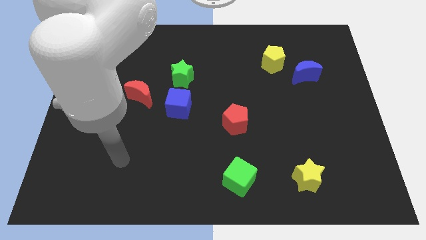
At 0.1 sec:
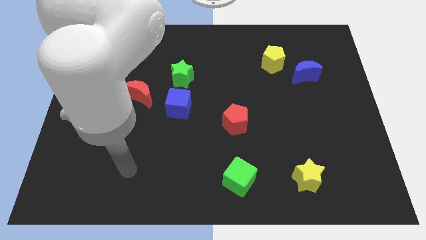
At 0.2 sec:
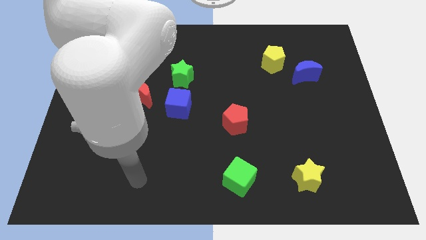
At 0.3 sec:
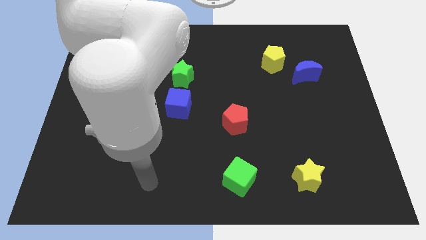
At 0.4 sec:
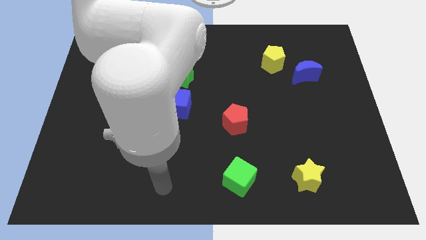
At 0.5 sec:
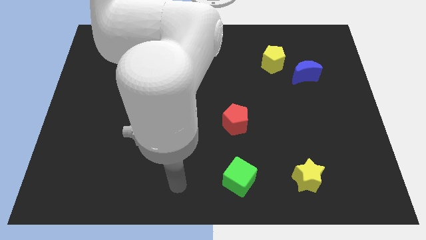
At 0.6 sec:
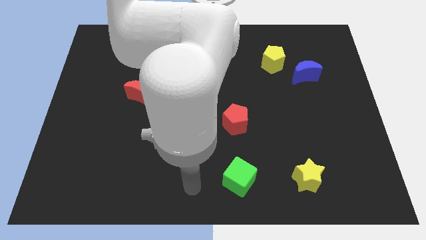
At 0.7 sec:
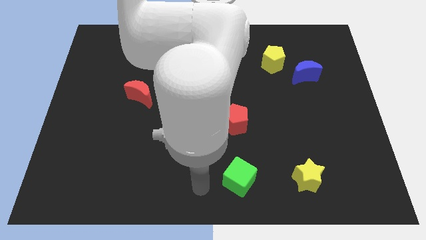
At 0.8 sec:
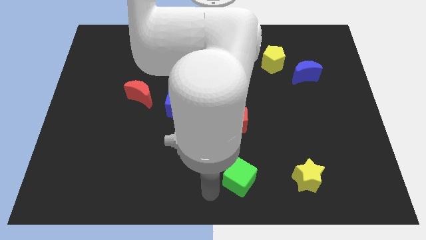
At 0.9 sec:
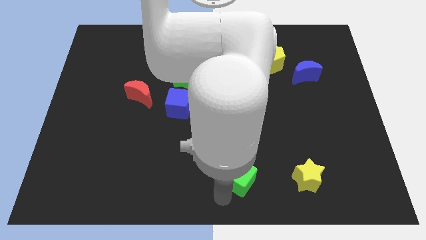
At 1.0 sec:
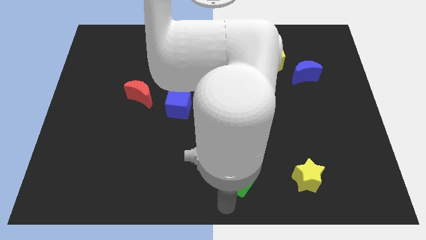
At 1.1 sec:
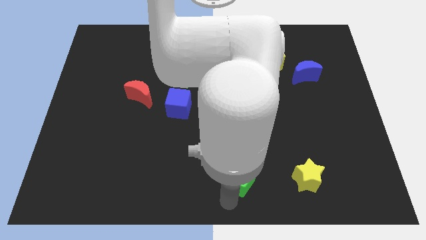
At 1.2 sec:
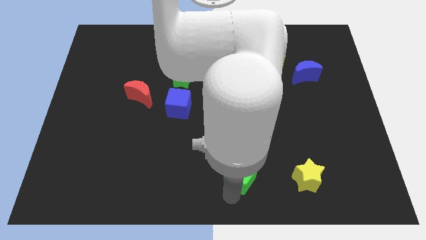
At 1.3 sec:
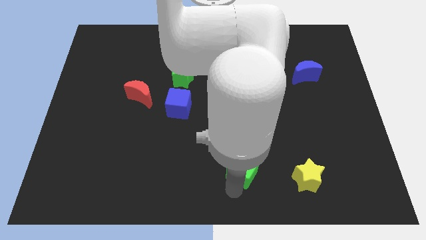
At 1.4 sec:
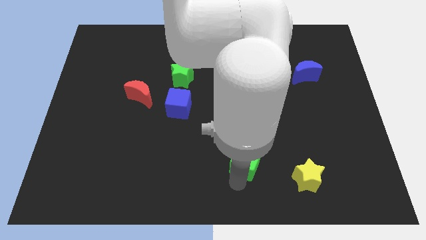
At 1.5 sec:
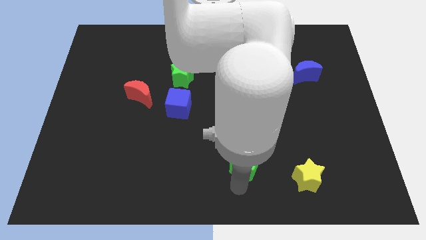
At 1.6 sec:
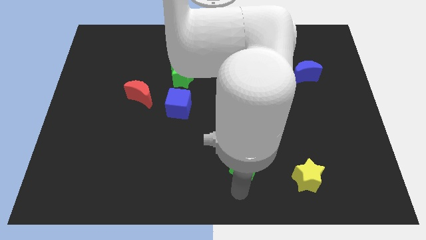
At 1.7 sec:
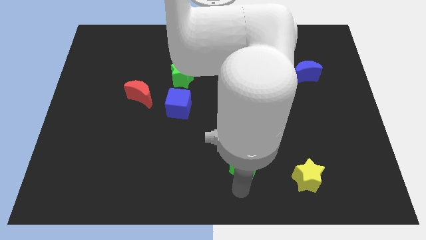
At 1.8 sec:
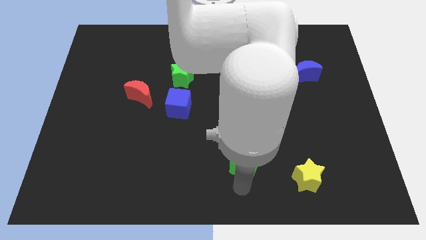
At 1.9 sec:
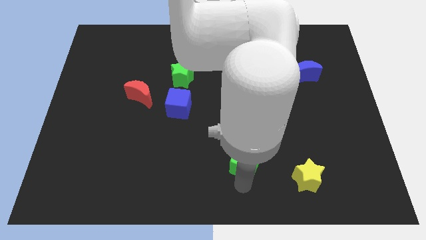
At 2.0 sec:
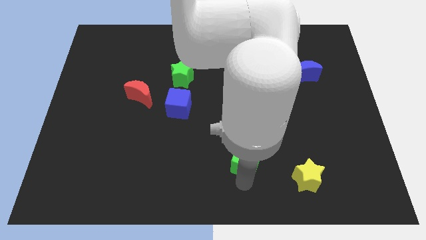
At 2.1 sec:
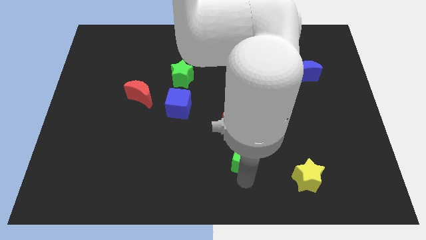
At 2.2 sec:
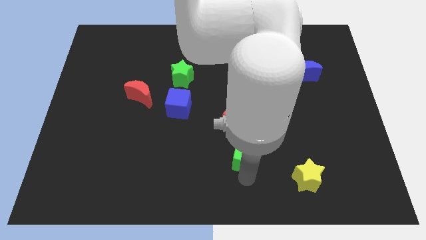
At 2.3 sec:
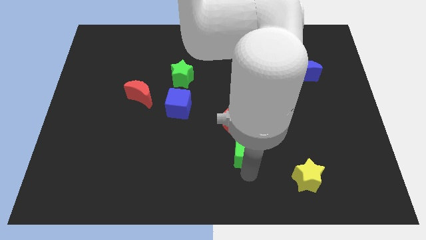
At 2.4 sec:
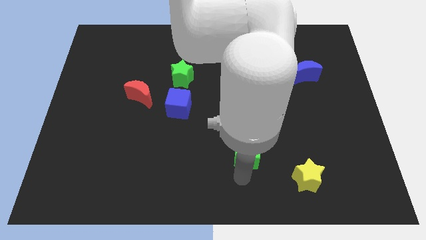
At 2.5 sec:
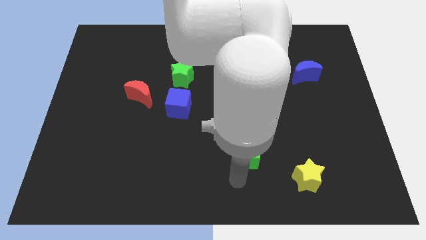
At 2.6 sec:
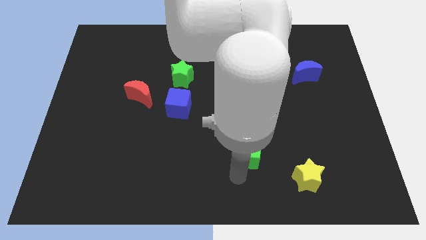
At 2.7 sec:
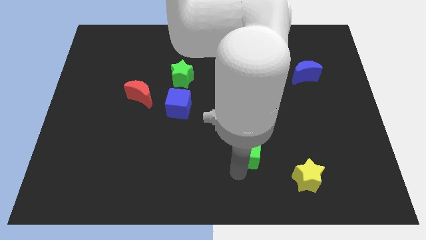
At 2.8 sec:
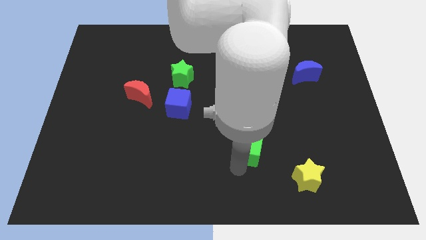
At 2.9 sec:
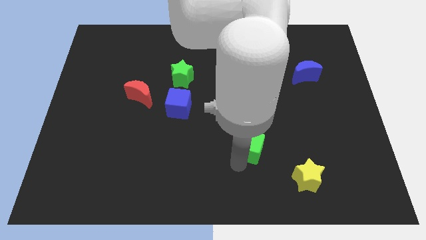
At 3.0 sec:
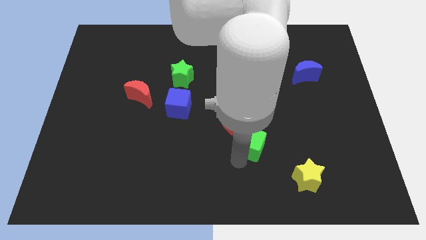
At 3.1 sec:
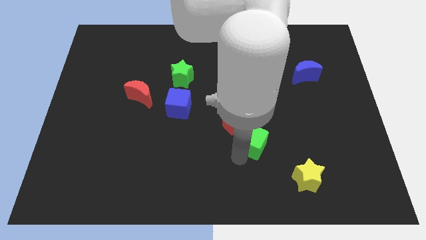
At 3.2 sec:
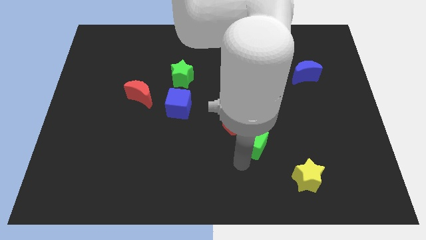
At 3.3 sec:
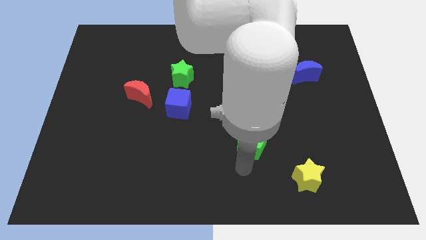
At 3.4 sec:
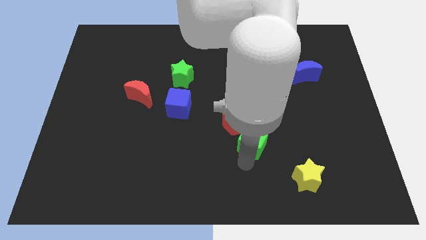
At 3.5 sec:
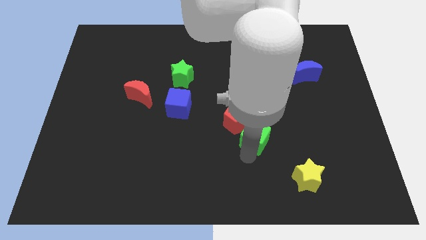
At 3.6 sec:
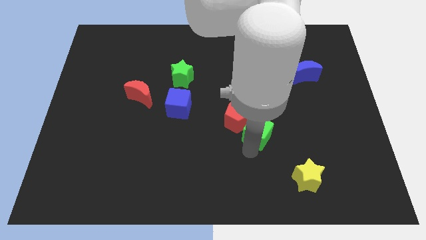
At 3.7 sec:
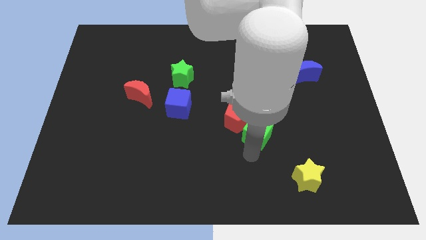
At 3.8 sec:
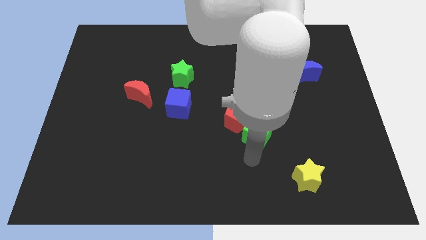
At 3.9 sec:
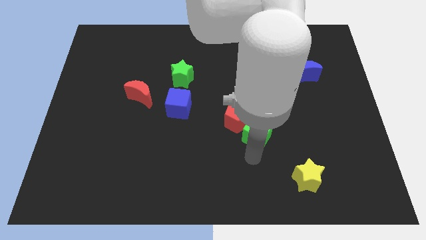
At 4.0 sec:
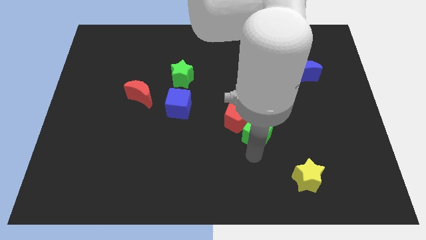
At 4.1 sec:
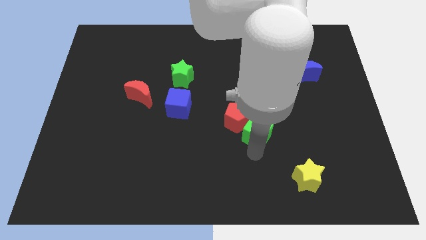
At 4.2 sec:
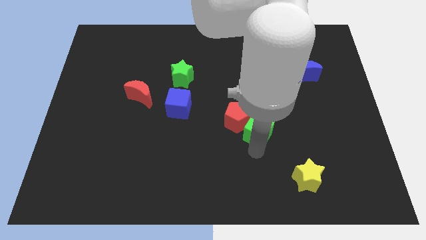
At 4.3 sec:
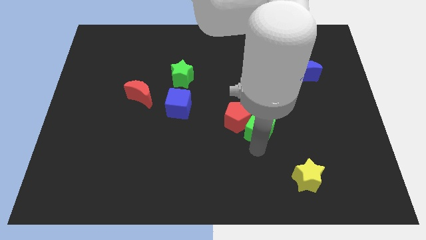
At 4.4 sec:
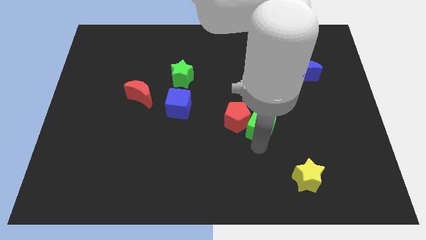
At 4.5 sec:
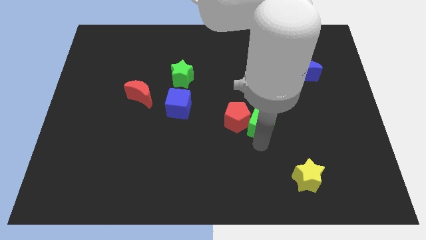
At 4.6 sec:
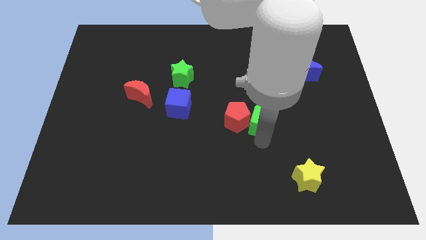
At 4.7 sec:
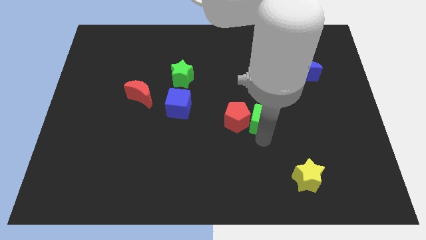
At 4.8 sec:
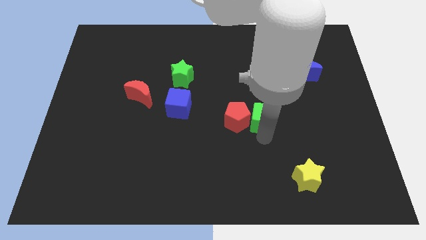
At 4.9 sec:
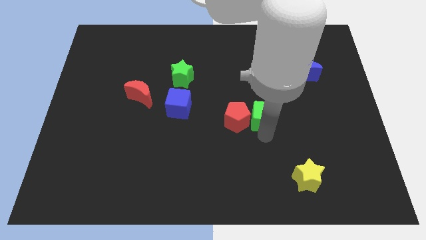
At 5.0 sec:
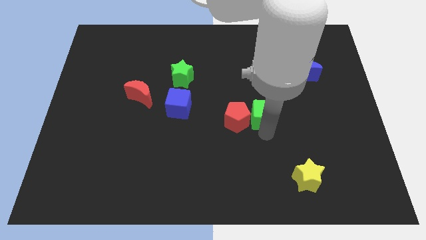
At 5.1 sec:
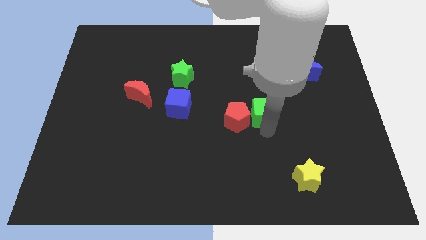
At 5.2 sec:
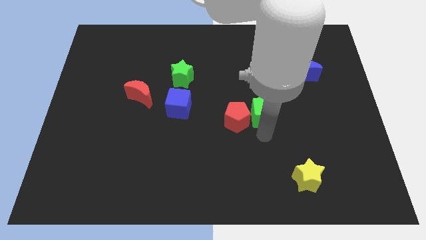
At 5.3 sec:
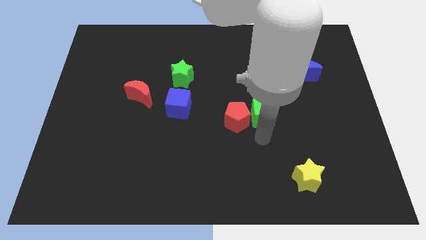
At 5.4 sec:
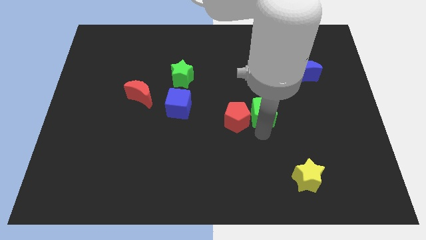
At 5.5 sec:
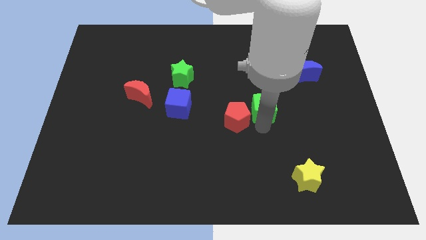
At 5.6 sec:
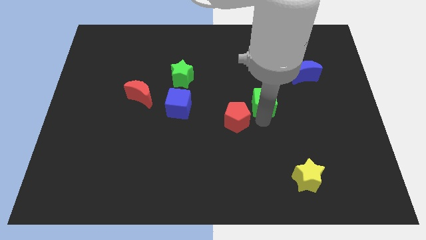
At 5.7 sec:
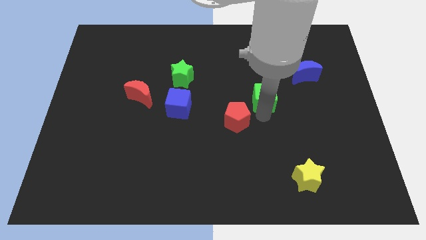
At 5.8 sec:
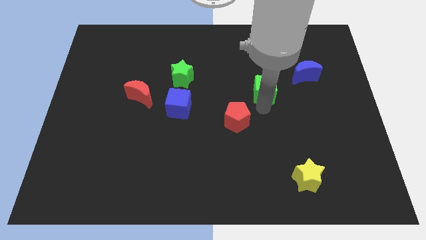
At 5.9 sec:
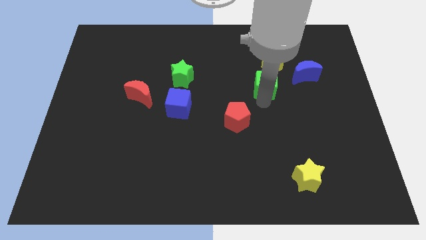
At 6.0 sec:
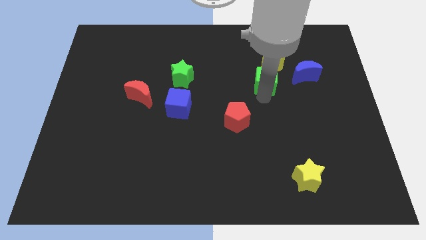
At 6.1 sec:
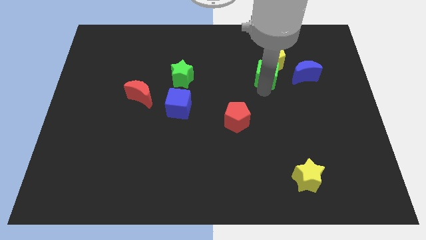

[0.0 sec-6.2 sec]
move the green cube towards the yellow pentagon

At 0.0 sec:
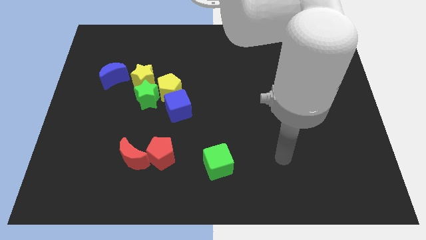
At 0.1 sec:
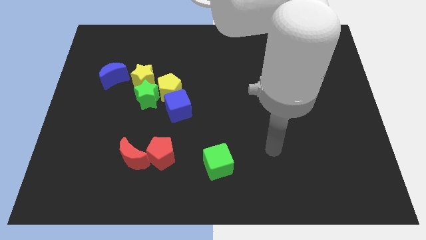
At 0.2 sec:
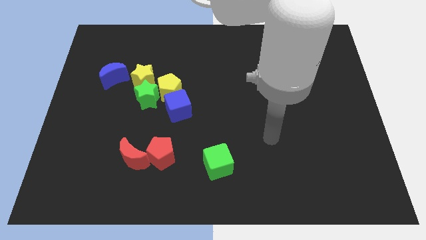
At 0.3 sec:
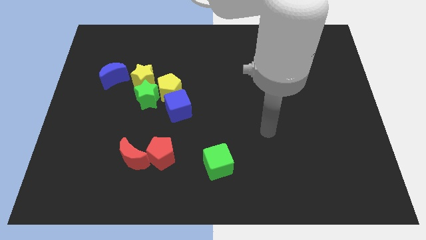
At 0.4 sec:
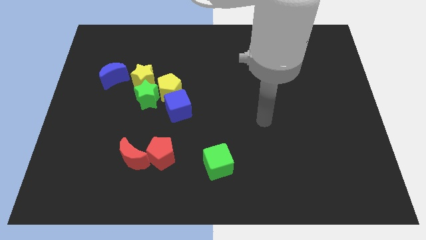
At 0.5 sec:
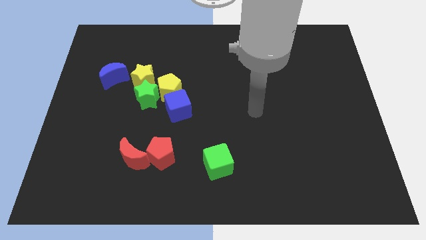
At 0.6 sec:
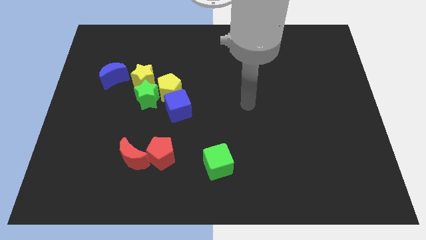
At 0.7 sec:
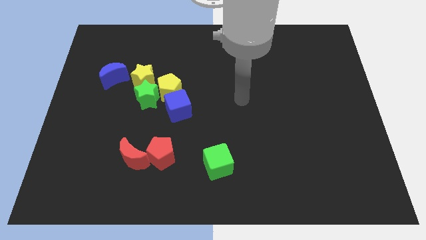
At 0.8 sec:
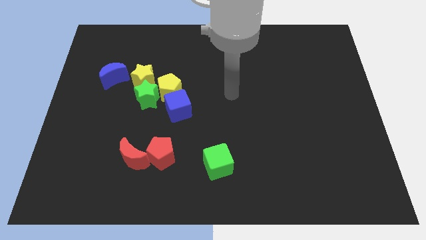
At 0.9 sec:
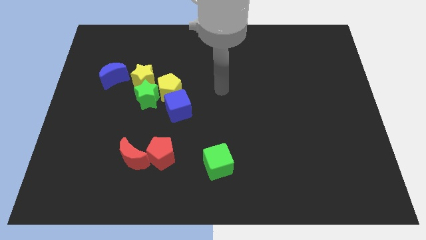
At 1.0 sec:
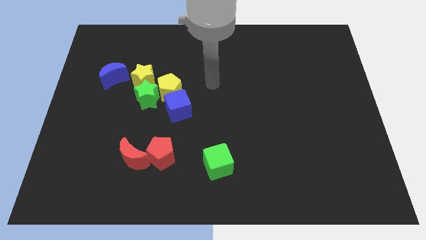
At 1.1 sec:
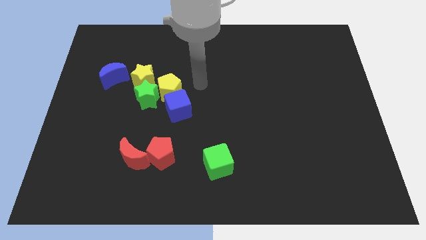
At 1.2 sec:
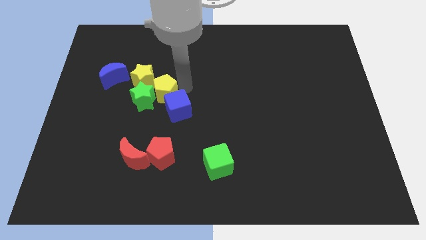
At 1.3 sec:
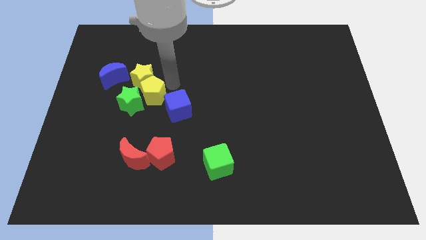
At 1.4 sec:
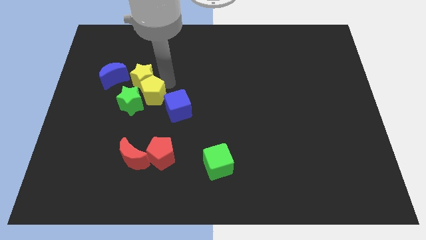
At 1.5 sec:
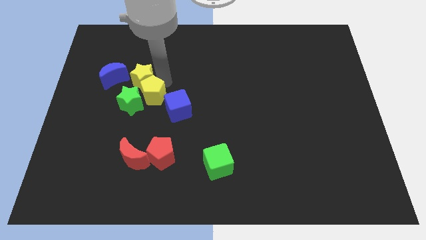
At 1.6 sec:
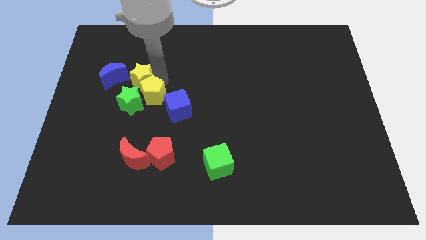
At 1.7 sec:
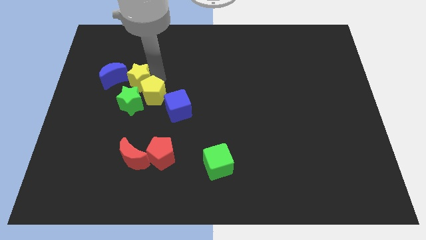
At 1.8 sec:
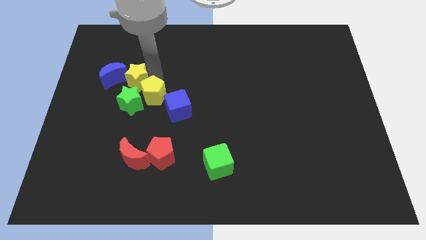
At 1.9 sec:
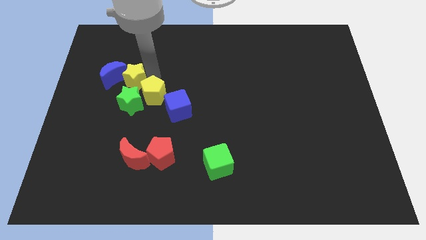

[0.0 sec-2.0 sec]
push the yellow star close to the blue moon
